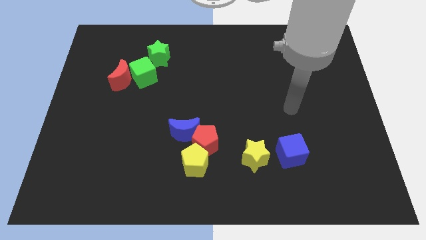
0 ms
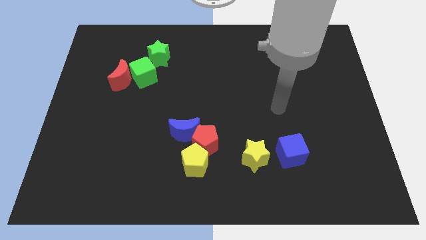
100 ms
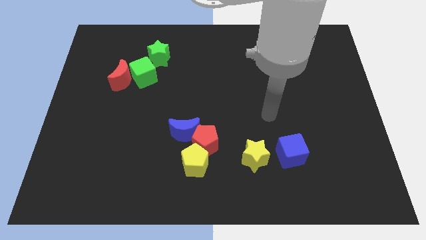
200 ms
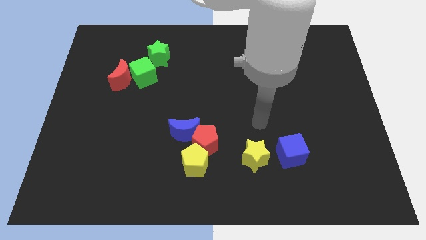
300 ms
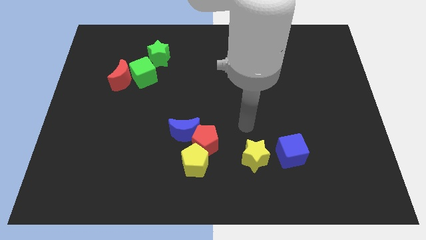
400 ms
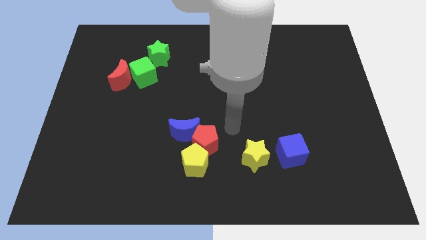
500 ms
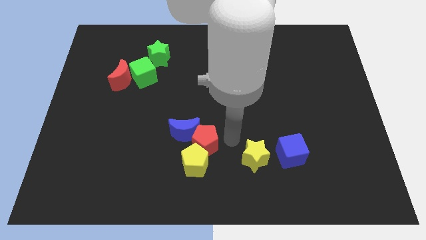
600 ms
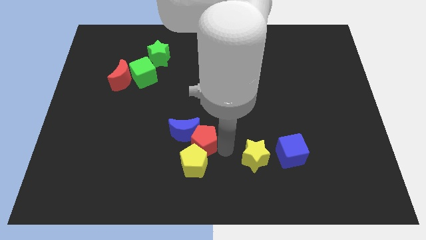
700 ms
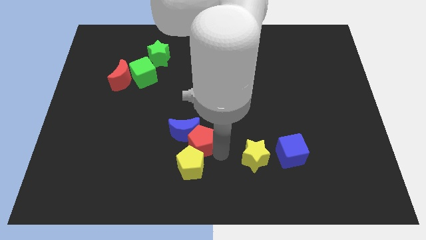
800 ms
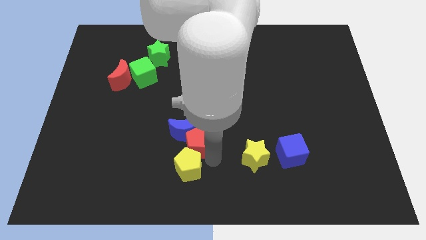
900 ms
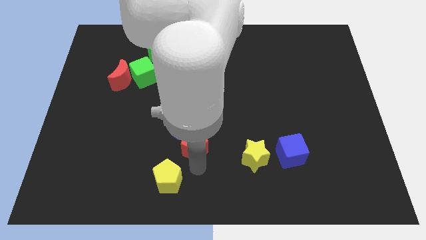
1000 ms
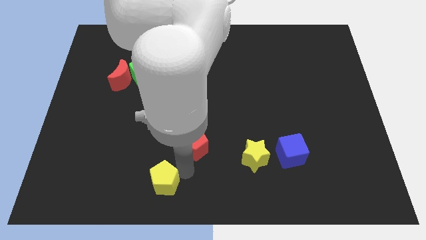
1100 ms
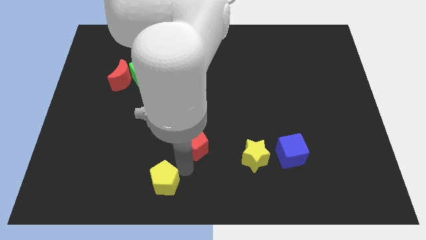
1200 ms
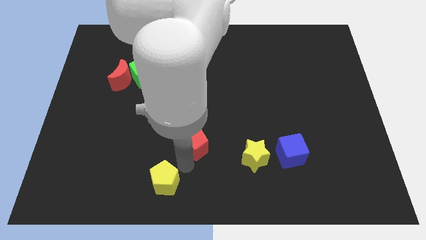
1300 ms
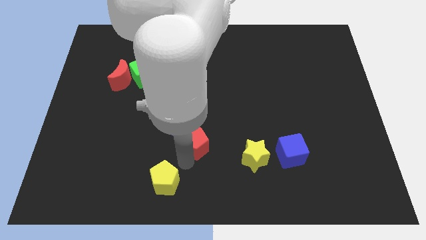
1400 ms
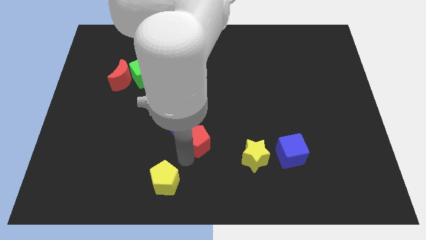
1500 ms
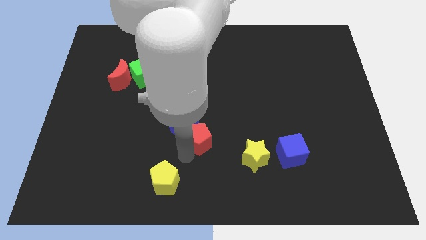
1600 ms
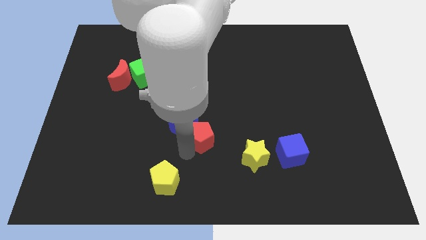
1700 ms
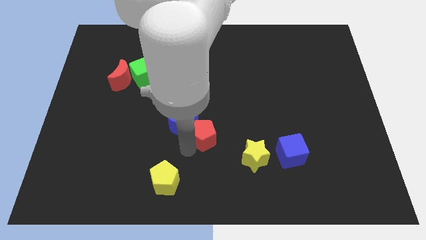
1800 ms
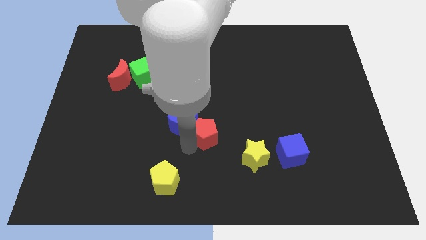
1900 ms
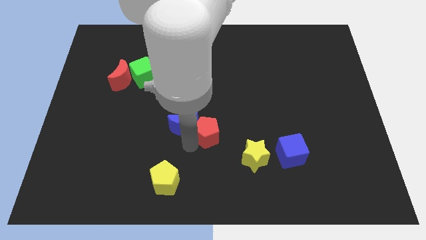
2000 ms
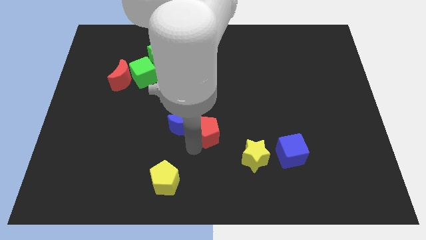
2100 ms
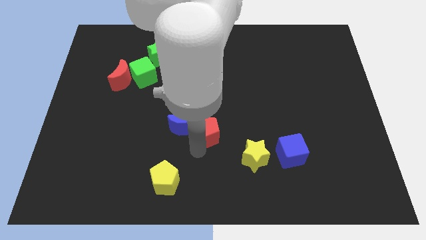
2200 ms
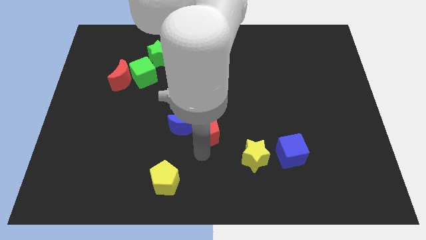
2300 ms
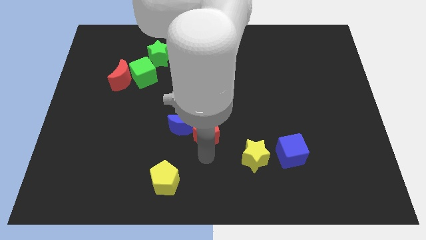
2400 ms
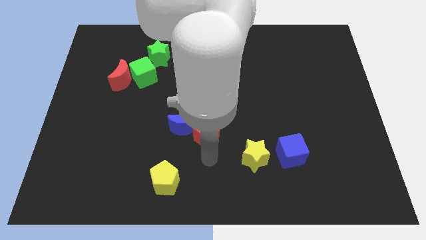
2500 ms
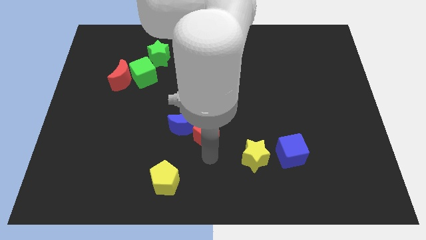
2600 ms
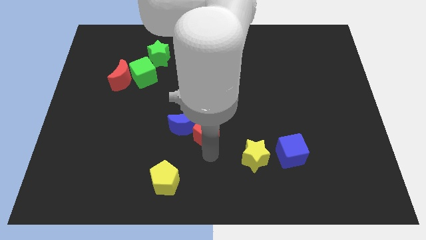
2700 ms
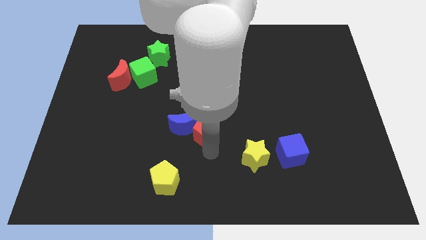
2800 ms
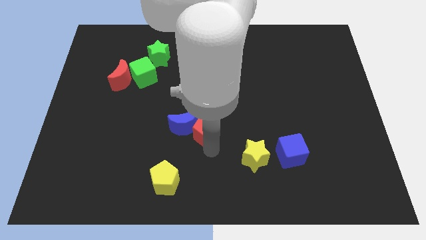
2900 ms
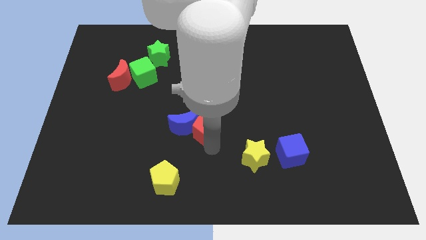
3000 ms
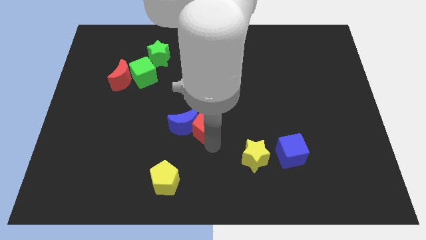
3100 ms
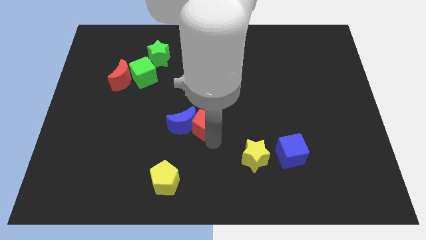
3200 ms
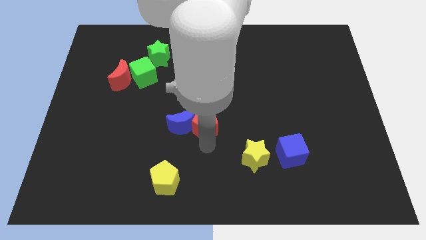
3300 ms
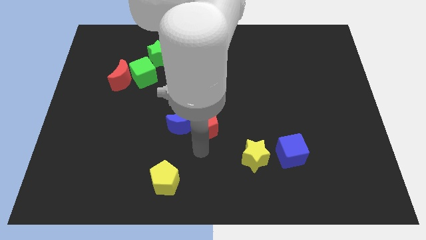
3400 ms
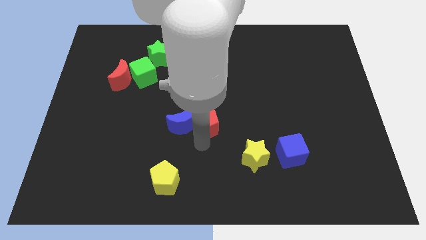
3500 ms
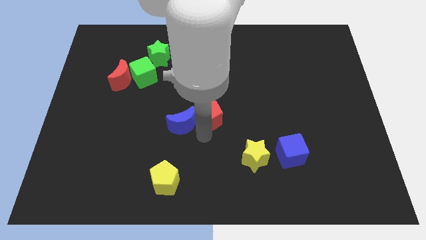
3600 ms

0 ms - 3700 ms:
push the red pentagon a little upwards

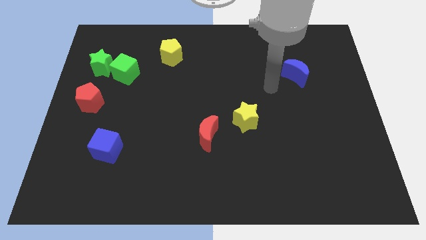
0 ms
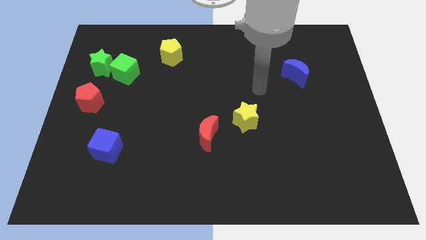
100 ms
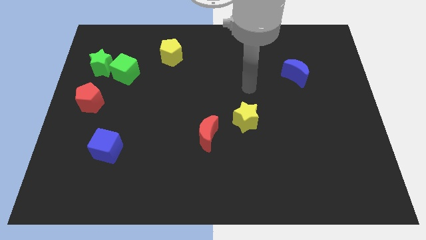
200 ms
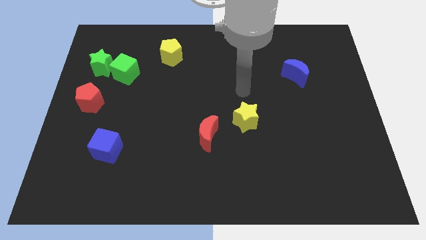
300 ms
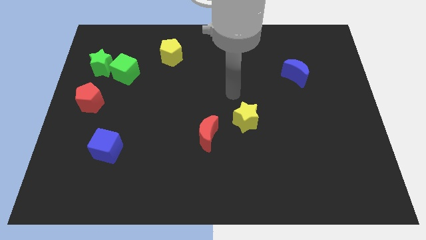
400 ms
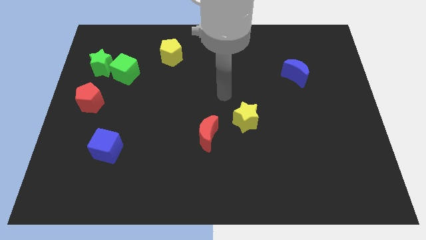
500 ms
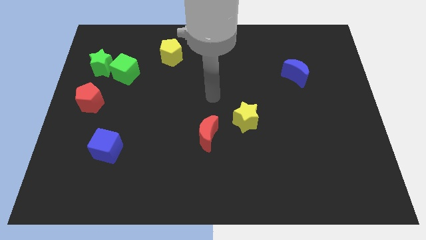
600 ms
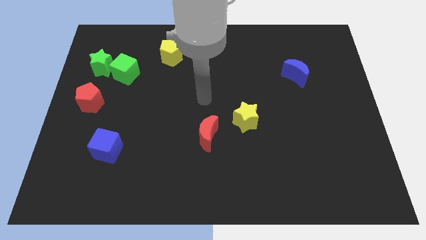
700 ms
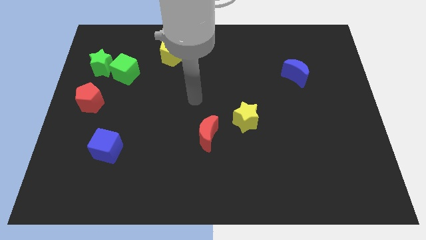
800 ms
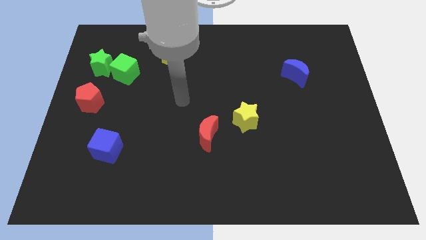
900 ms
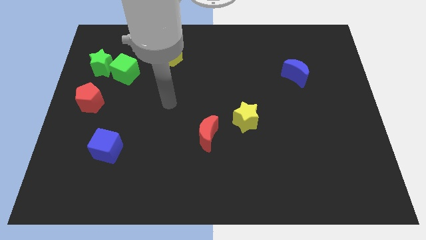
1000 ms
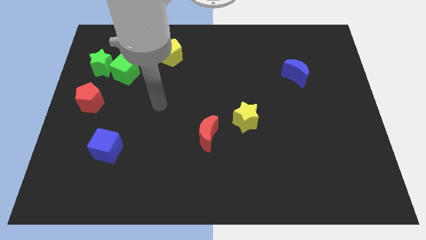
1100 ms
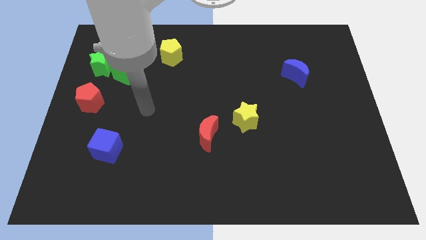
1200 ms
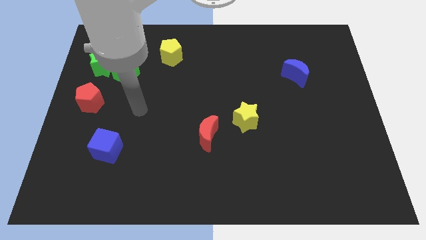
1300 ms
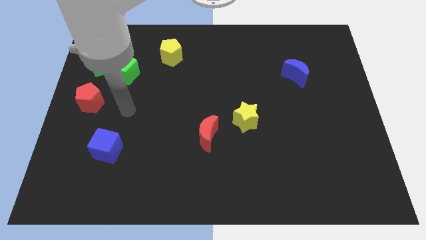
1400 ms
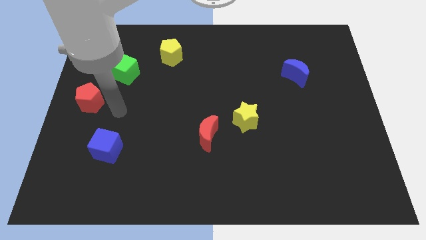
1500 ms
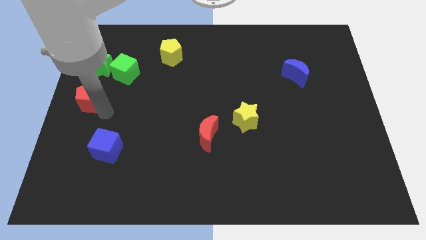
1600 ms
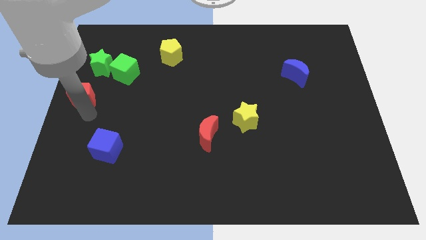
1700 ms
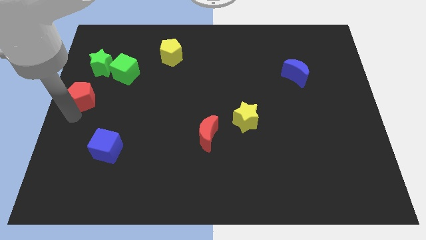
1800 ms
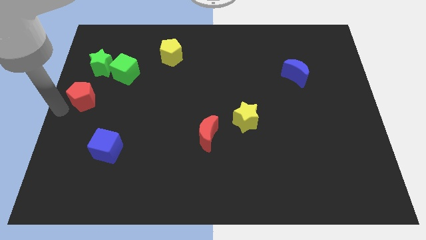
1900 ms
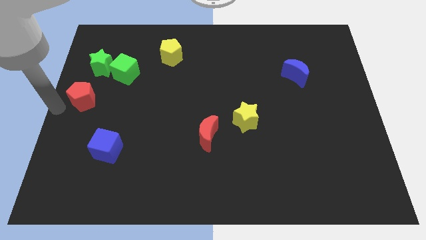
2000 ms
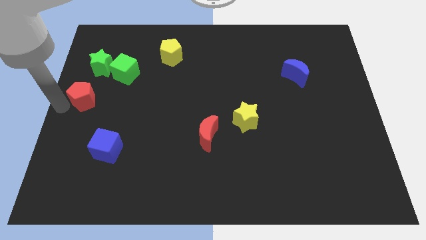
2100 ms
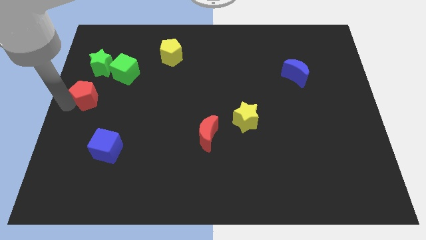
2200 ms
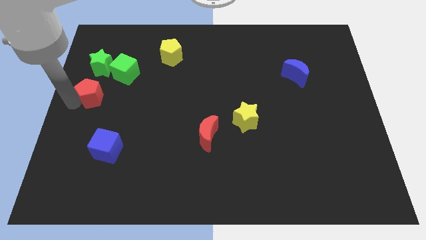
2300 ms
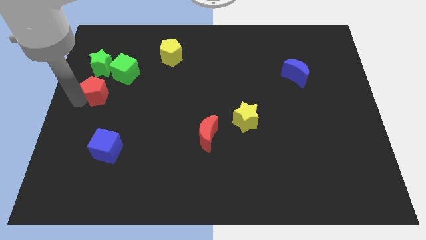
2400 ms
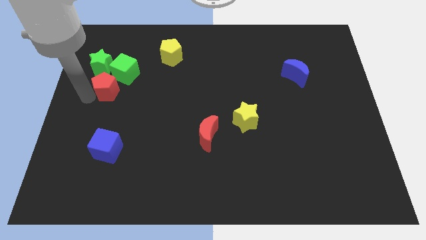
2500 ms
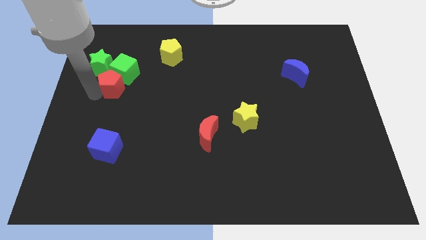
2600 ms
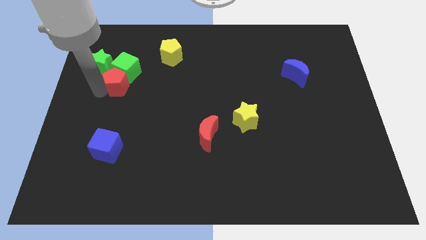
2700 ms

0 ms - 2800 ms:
slide the red pentagon upwards and then right somewhat

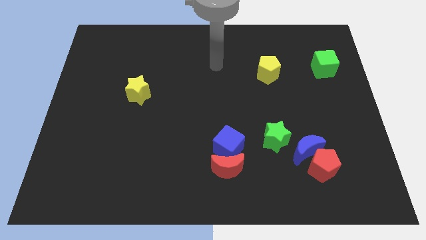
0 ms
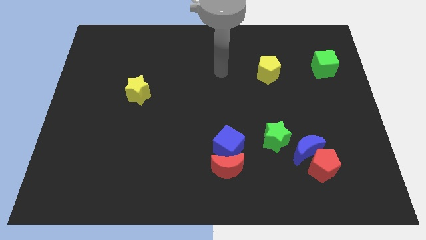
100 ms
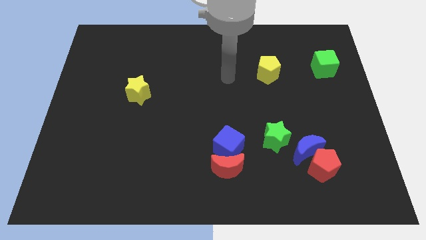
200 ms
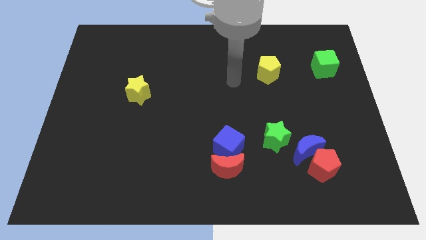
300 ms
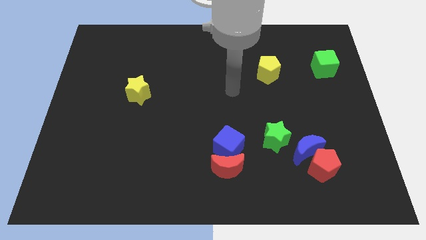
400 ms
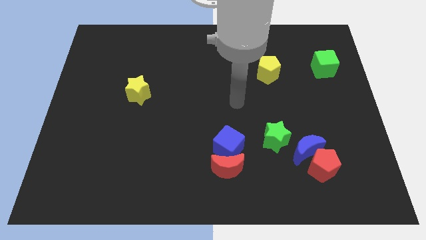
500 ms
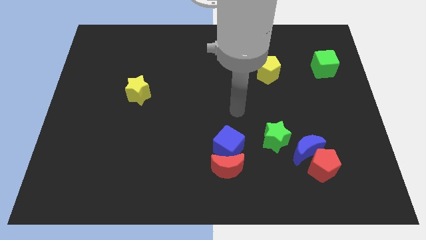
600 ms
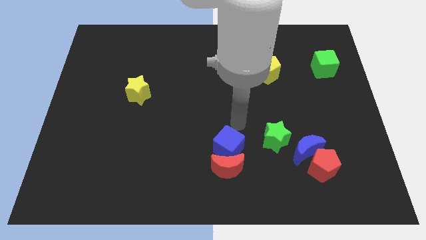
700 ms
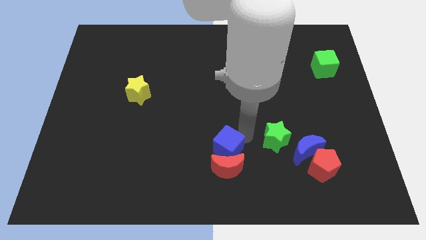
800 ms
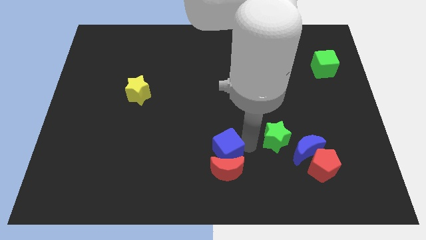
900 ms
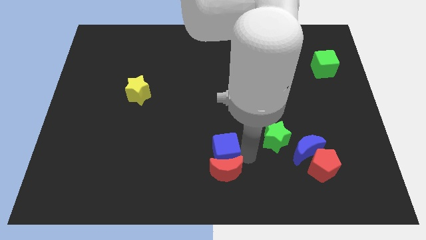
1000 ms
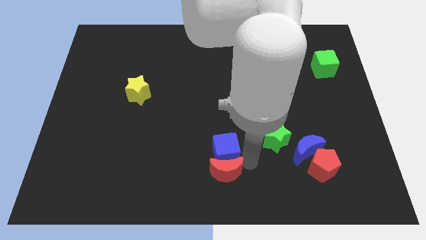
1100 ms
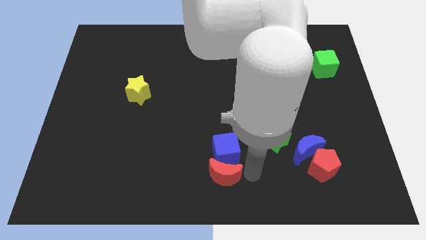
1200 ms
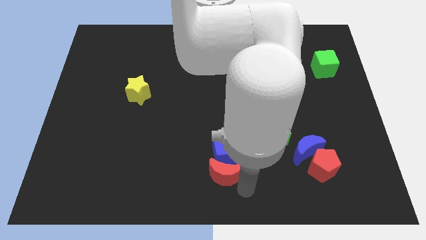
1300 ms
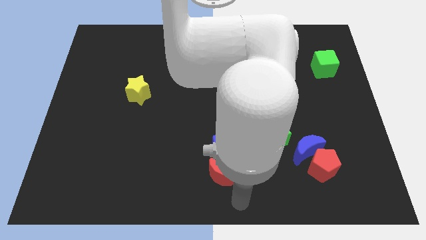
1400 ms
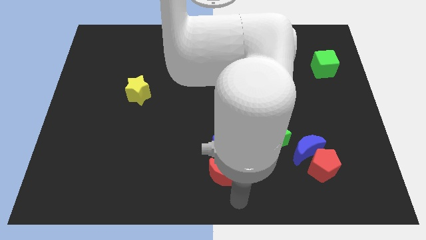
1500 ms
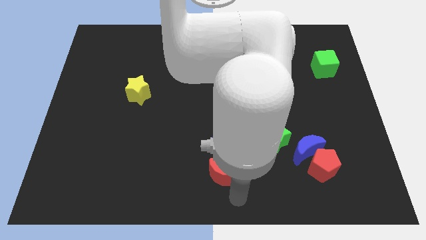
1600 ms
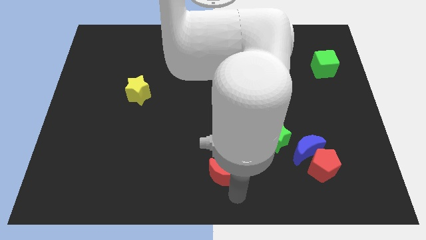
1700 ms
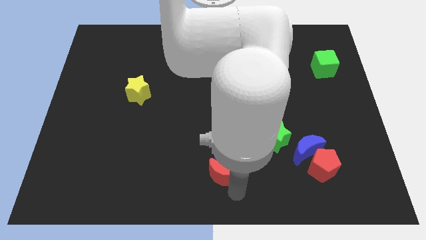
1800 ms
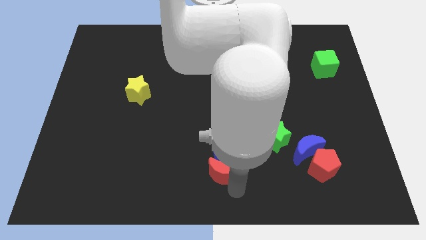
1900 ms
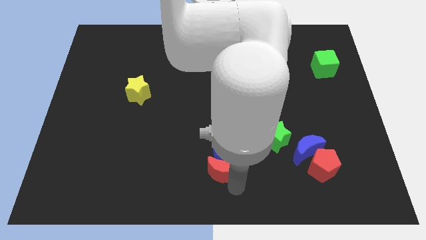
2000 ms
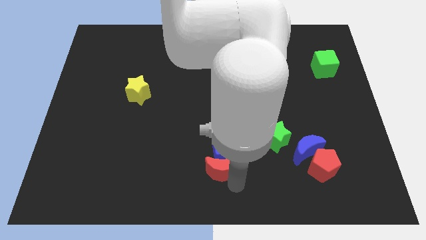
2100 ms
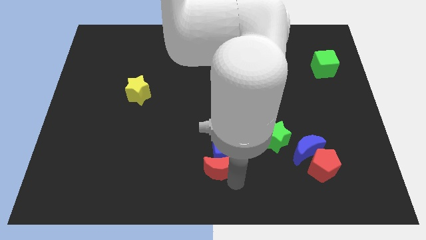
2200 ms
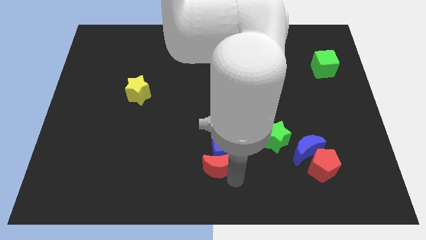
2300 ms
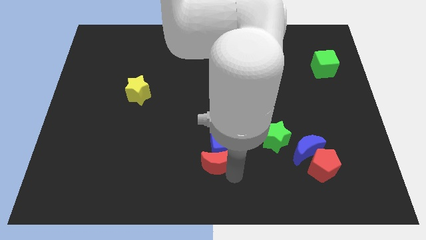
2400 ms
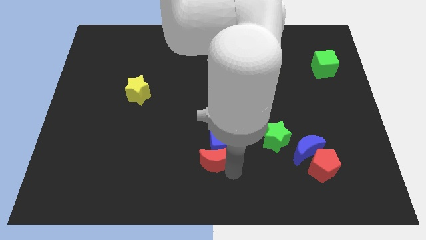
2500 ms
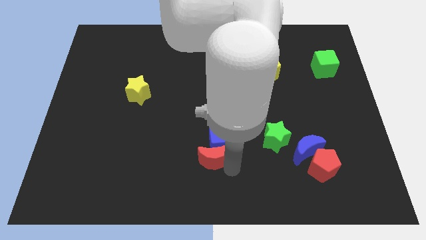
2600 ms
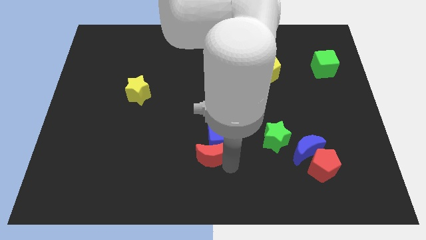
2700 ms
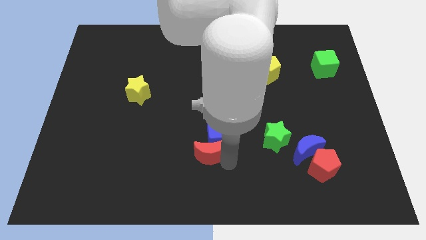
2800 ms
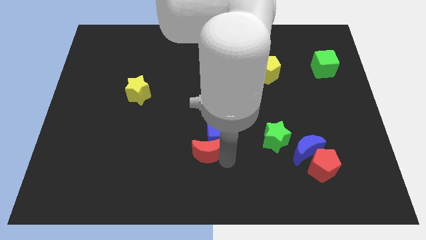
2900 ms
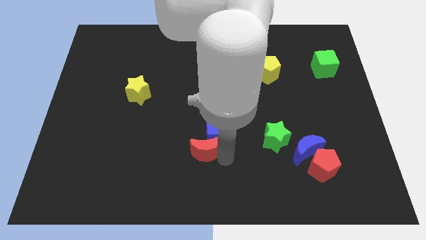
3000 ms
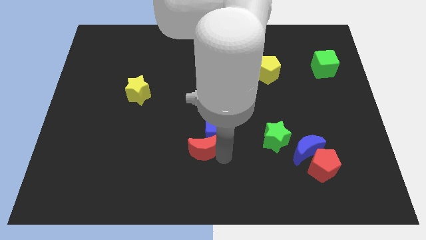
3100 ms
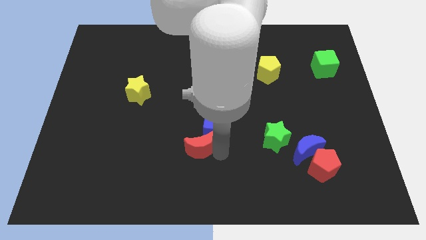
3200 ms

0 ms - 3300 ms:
slightly move the red moon up and to the left diagonally
